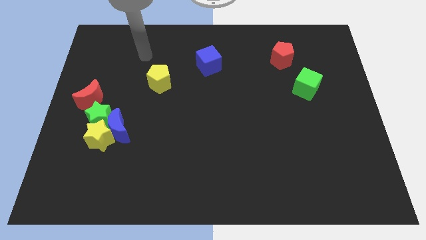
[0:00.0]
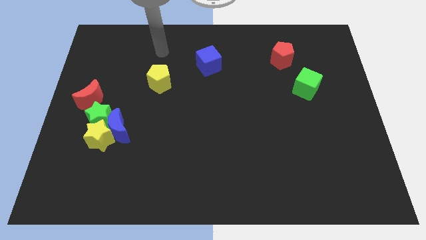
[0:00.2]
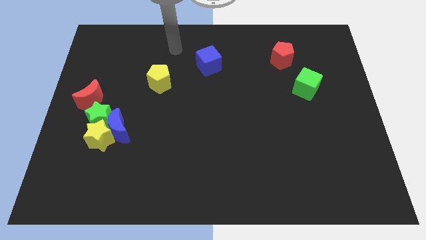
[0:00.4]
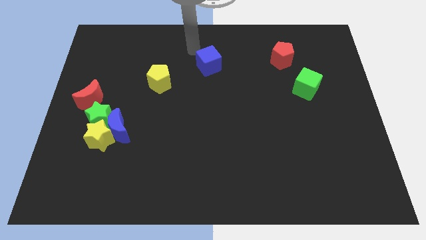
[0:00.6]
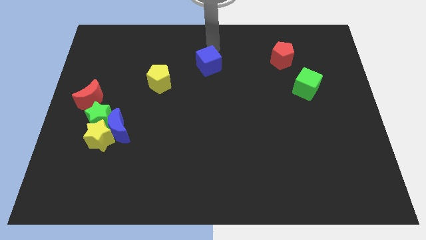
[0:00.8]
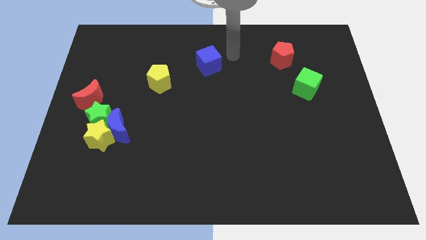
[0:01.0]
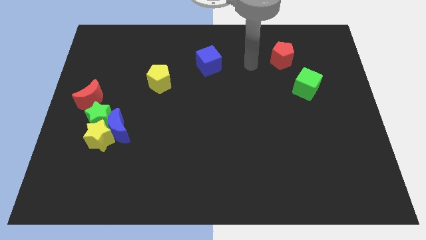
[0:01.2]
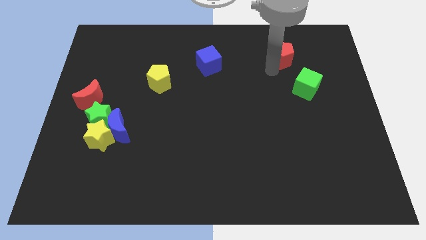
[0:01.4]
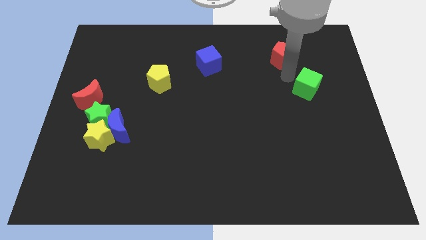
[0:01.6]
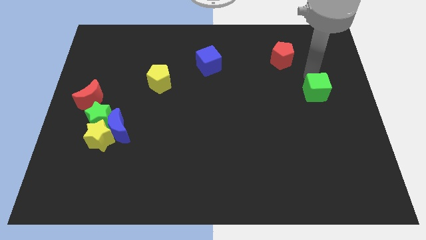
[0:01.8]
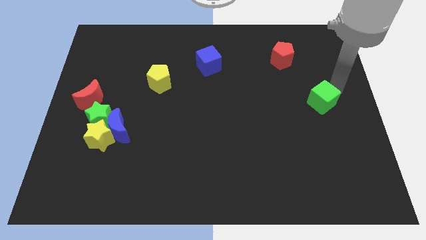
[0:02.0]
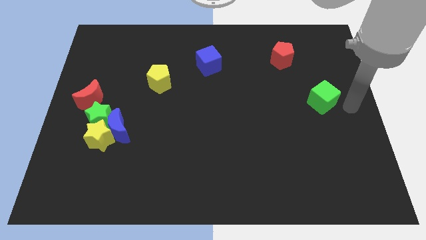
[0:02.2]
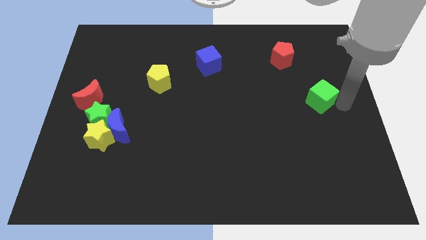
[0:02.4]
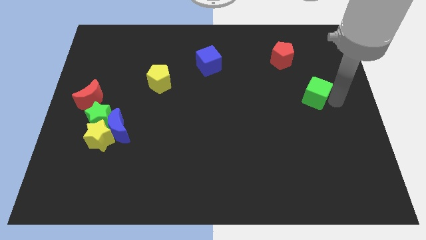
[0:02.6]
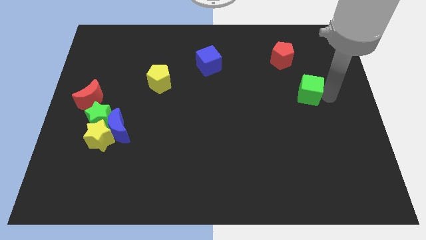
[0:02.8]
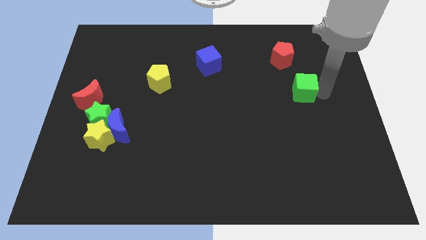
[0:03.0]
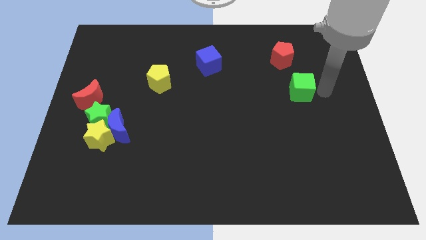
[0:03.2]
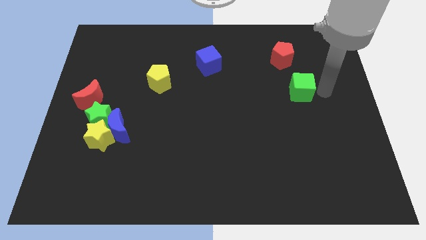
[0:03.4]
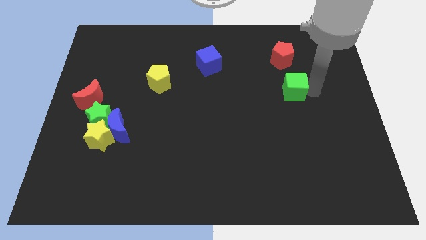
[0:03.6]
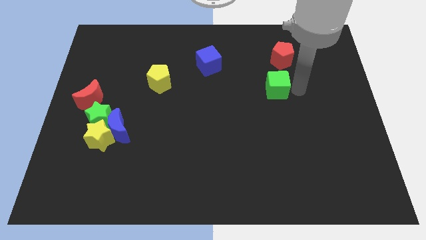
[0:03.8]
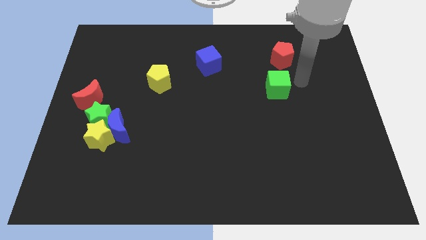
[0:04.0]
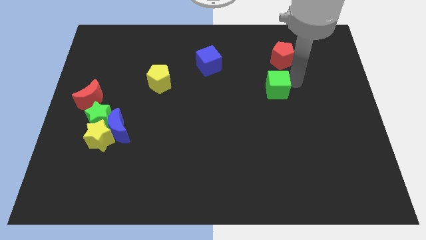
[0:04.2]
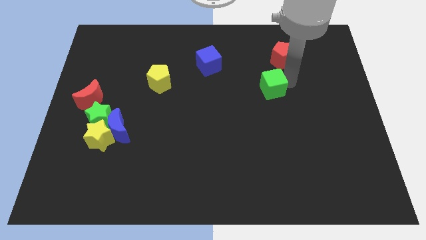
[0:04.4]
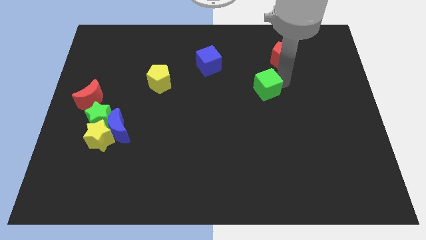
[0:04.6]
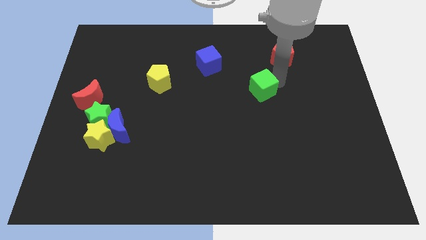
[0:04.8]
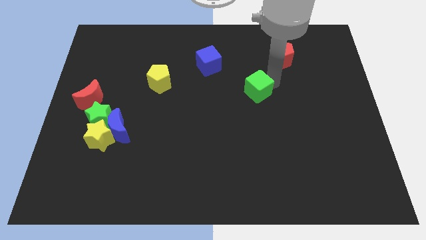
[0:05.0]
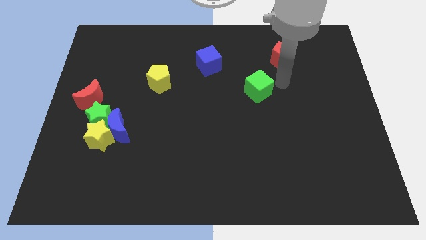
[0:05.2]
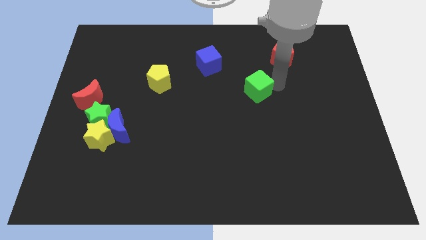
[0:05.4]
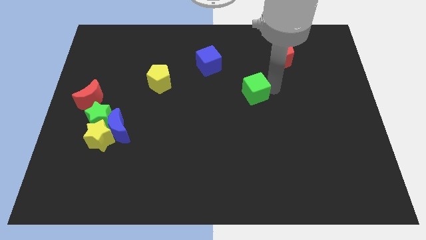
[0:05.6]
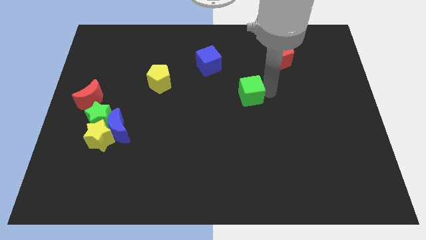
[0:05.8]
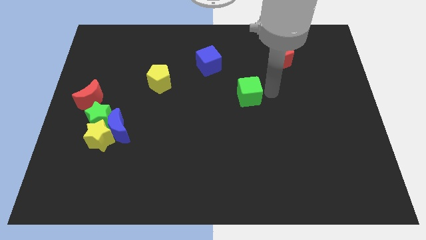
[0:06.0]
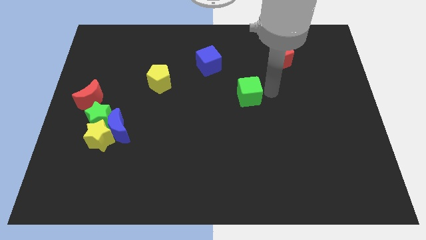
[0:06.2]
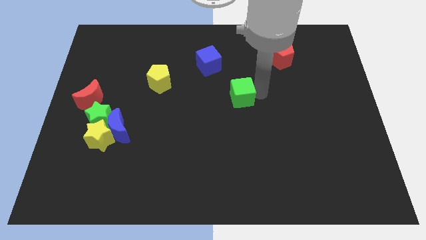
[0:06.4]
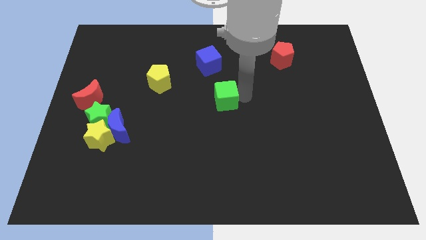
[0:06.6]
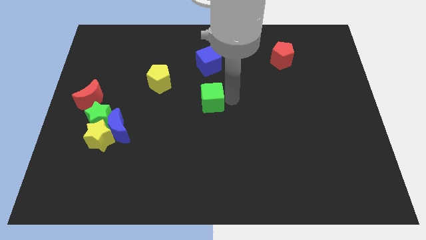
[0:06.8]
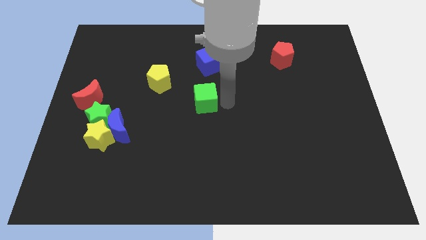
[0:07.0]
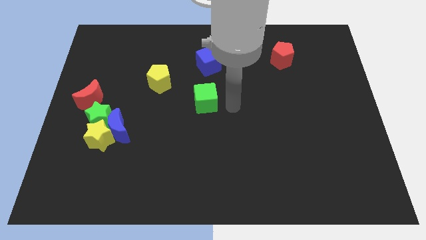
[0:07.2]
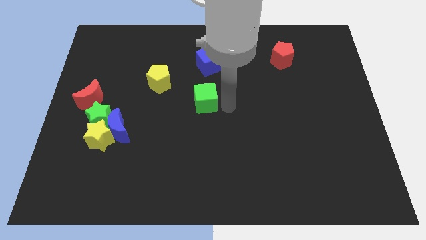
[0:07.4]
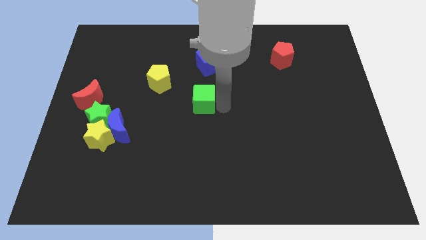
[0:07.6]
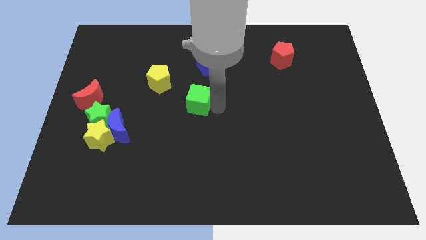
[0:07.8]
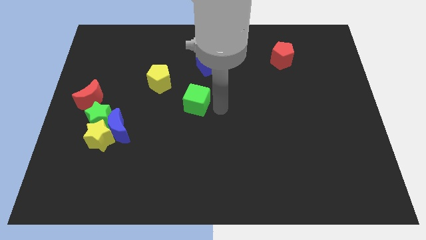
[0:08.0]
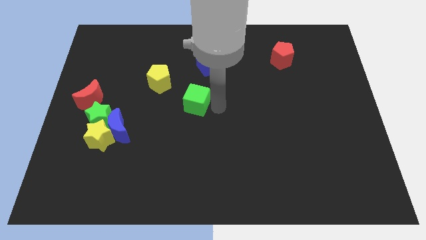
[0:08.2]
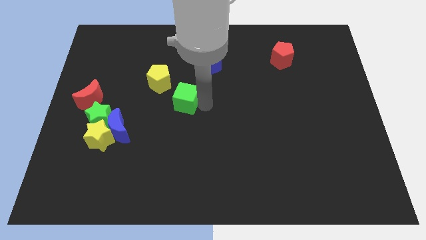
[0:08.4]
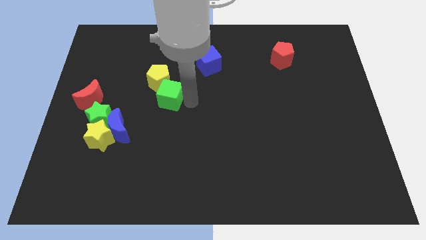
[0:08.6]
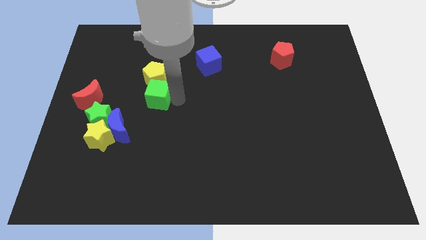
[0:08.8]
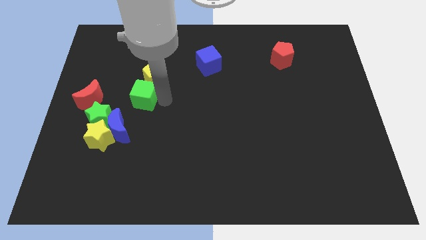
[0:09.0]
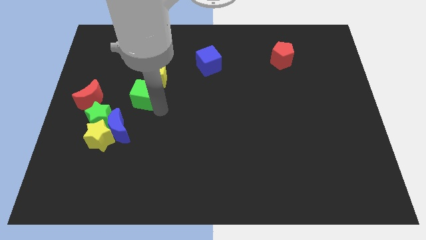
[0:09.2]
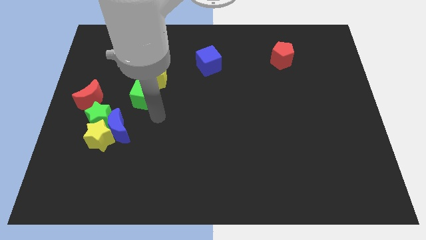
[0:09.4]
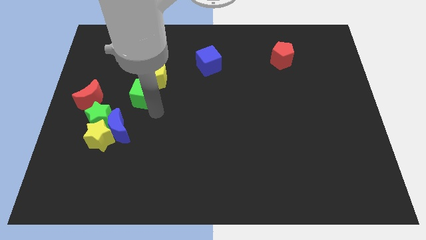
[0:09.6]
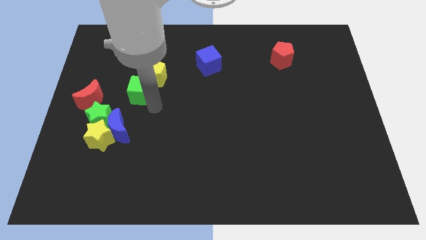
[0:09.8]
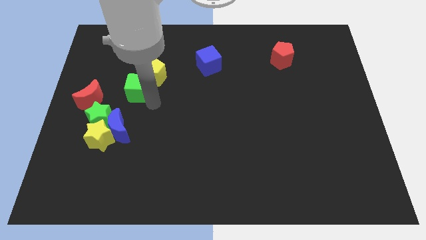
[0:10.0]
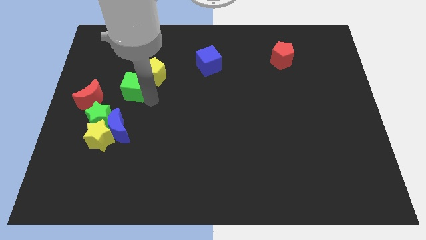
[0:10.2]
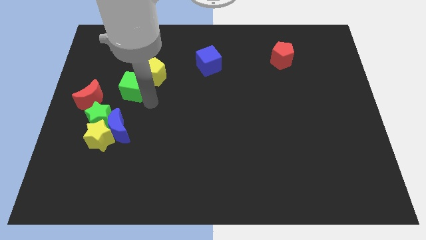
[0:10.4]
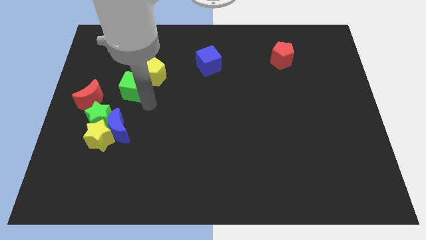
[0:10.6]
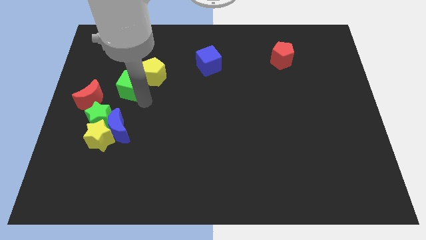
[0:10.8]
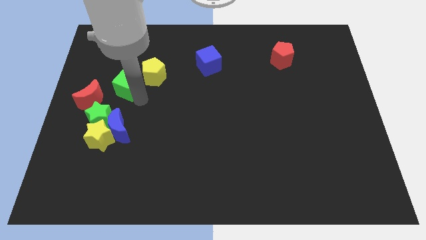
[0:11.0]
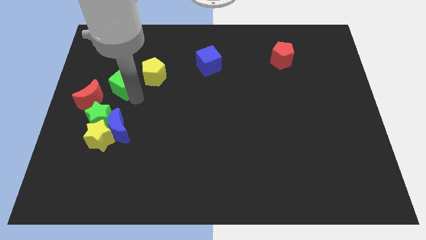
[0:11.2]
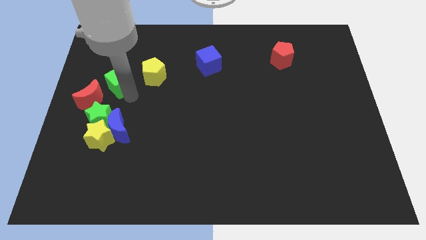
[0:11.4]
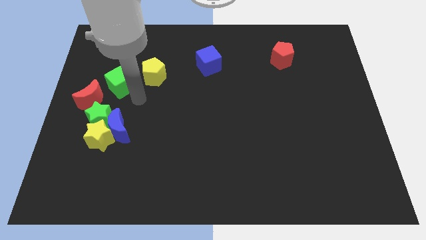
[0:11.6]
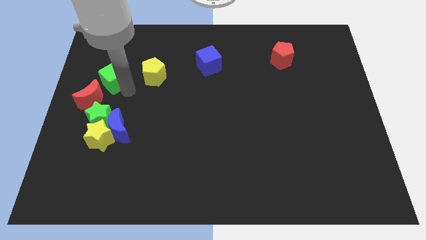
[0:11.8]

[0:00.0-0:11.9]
push the green cube to the top of the red moon
